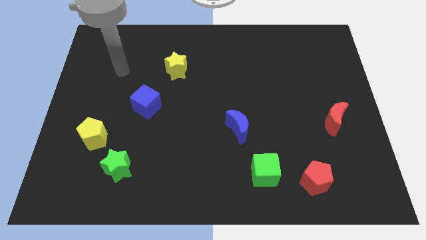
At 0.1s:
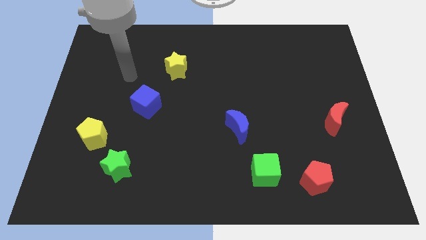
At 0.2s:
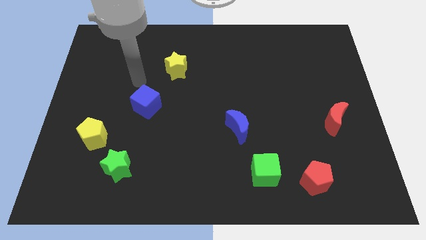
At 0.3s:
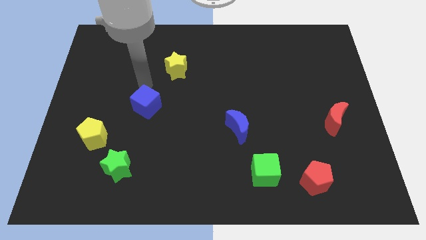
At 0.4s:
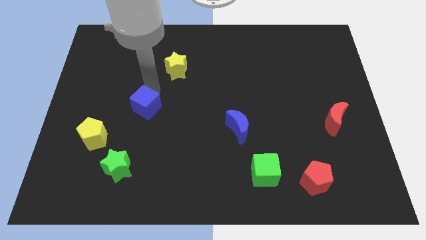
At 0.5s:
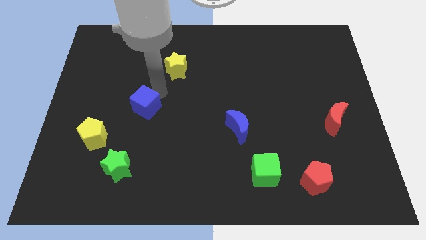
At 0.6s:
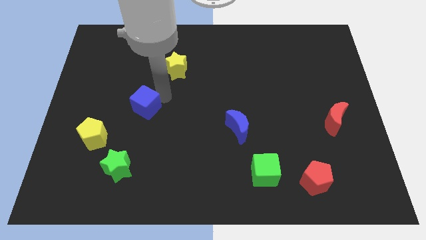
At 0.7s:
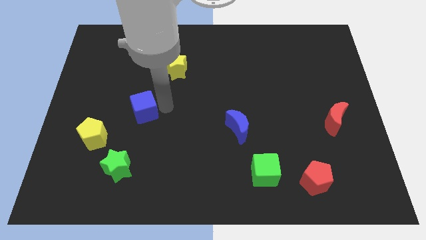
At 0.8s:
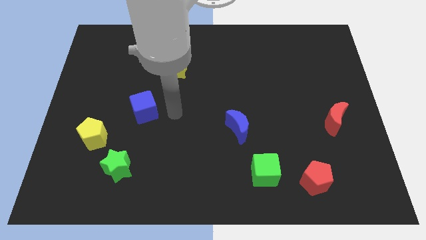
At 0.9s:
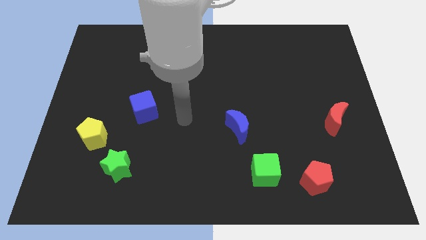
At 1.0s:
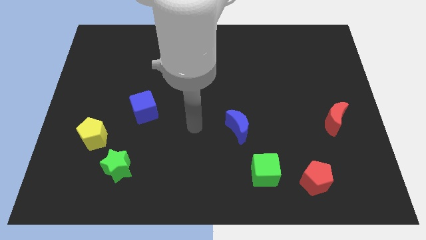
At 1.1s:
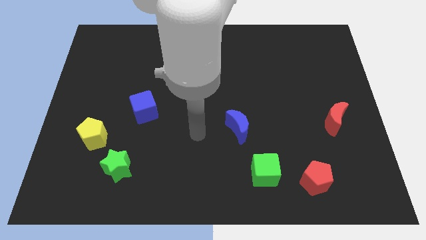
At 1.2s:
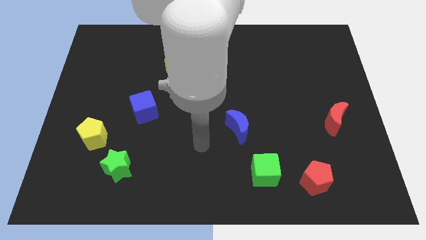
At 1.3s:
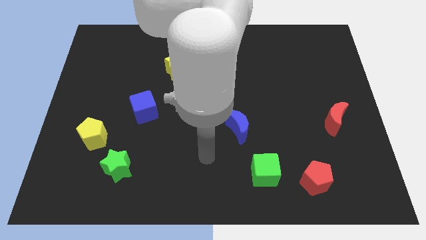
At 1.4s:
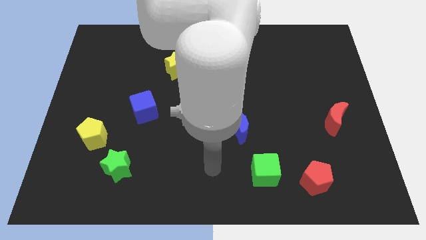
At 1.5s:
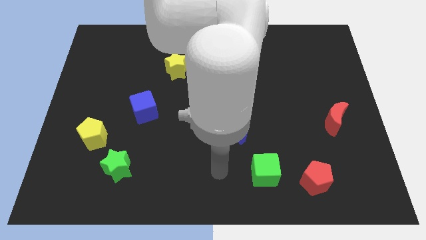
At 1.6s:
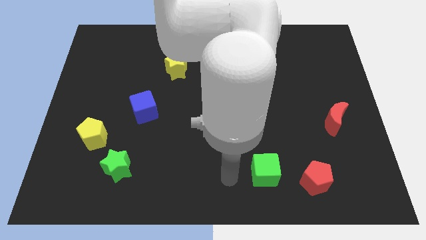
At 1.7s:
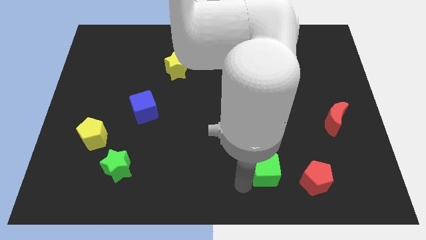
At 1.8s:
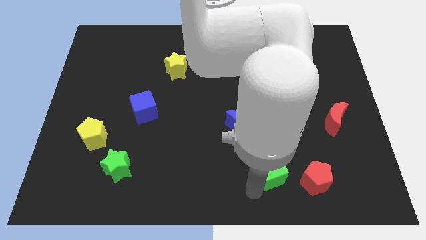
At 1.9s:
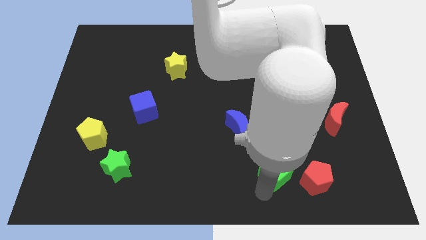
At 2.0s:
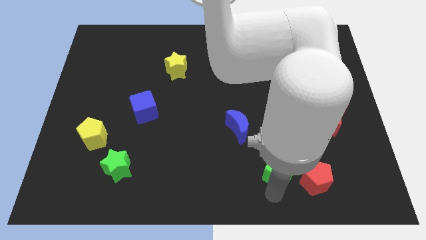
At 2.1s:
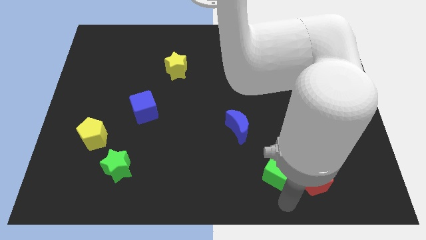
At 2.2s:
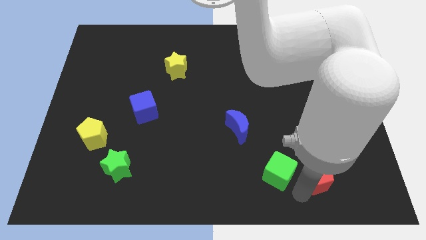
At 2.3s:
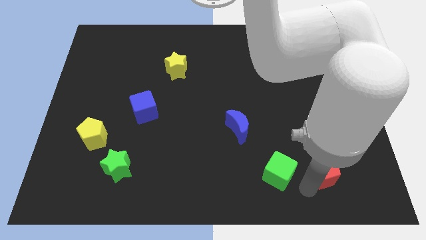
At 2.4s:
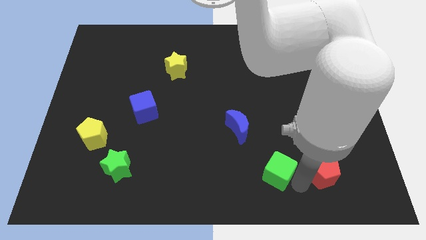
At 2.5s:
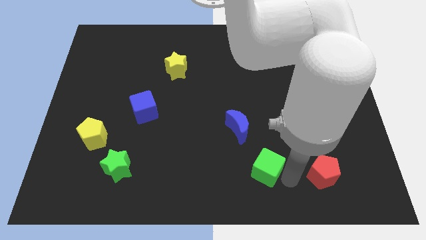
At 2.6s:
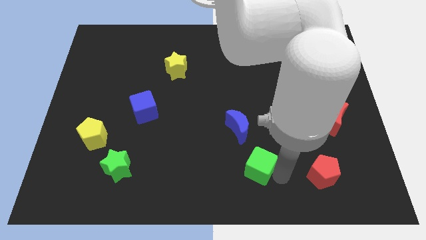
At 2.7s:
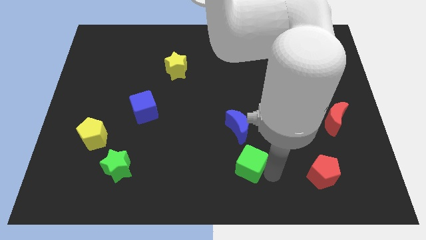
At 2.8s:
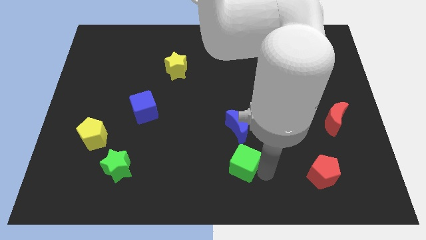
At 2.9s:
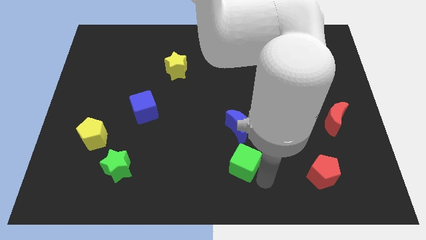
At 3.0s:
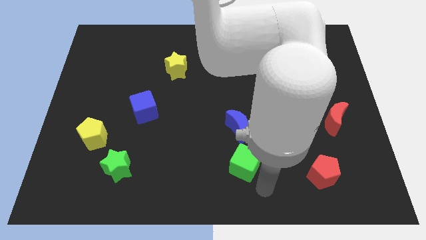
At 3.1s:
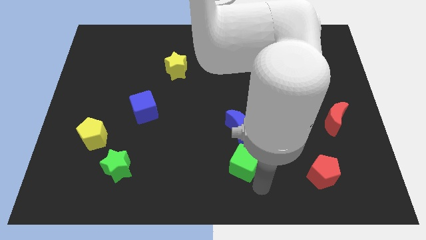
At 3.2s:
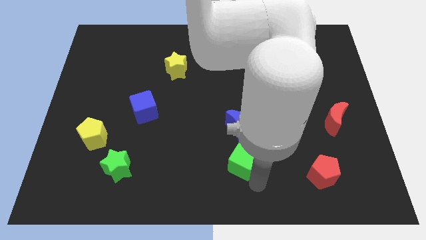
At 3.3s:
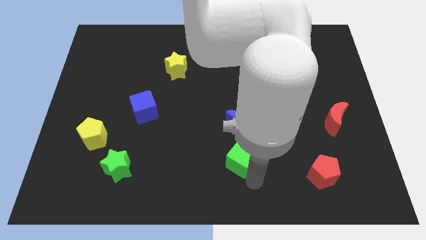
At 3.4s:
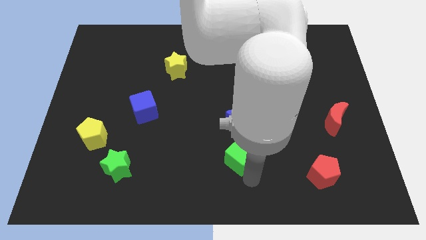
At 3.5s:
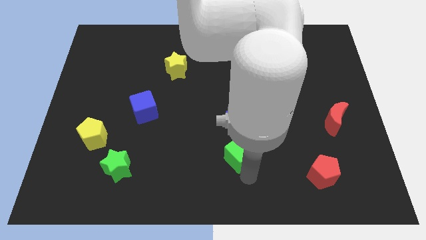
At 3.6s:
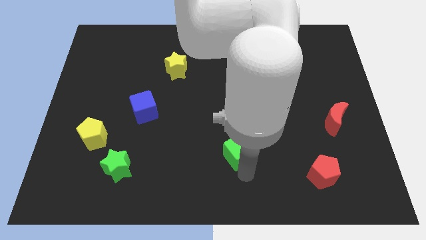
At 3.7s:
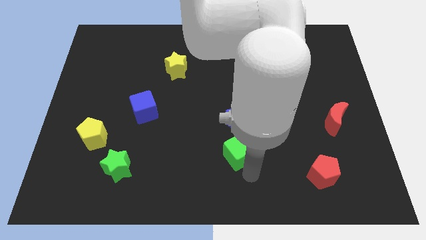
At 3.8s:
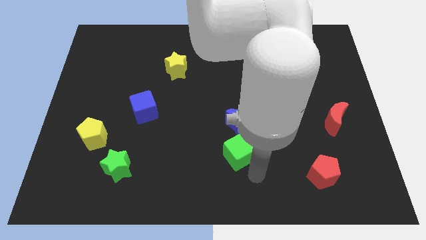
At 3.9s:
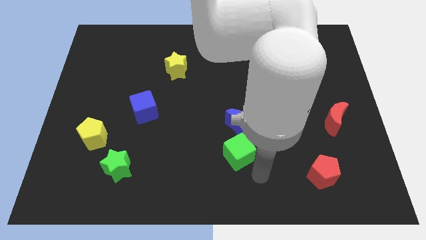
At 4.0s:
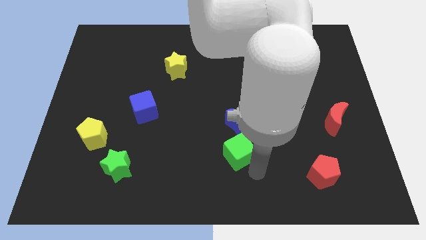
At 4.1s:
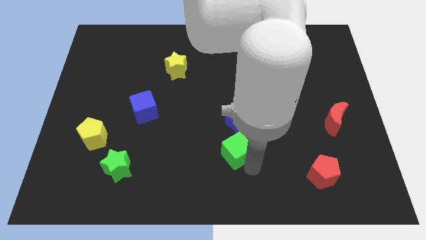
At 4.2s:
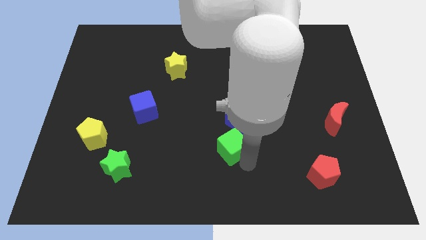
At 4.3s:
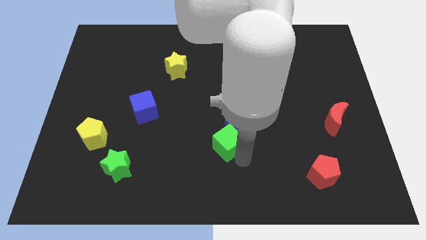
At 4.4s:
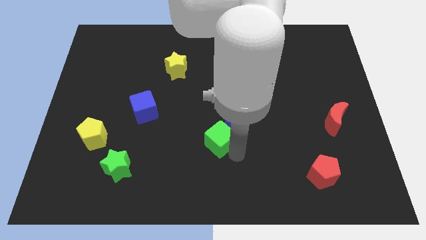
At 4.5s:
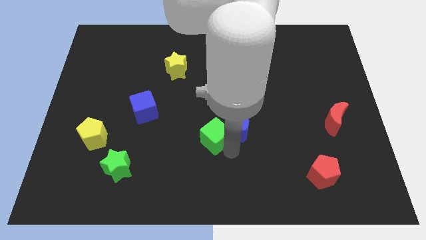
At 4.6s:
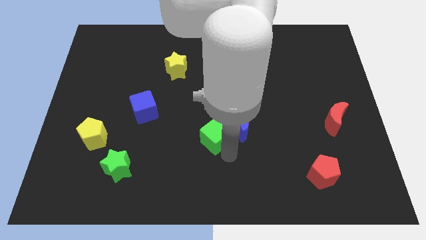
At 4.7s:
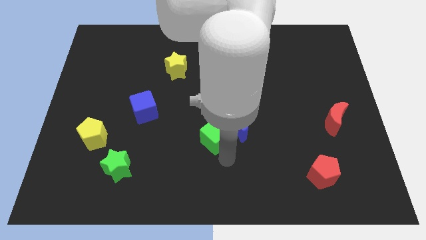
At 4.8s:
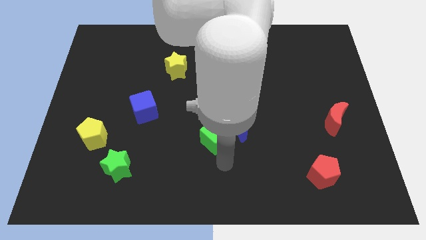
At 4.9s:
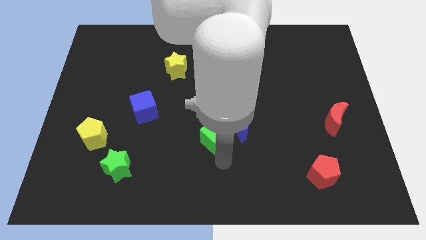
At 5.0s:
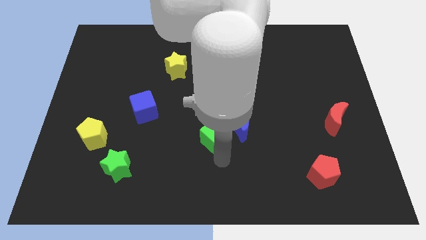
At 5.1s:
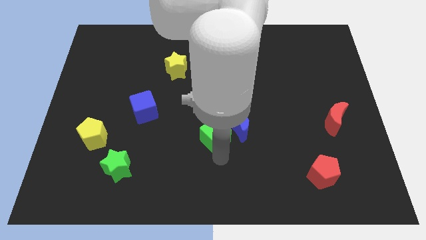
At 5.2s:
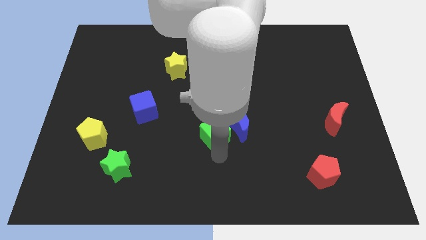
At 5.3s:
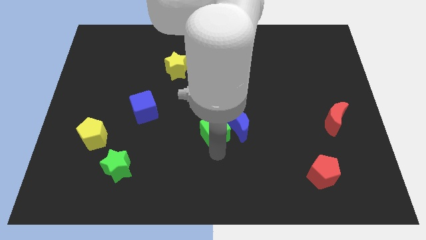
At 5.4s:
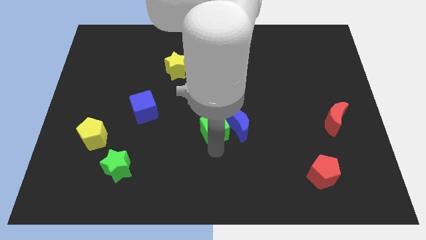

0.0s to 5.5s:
move the green cube to the top left side of the blue moon

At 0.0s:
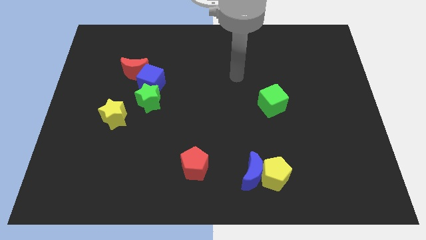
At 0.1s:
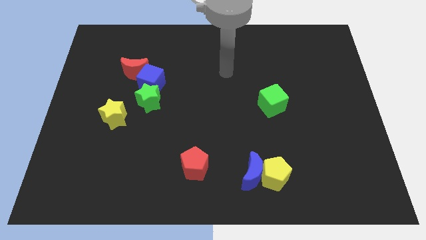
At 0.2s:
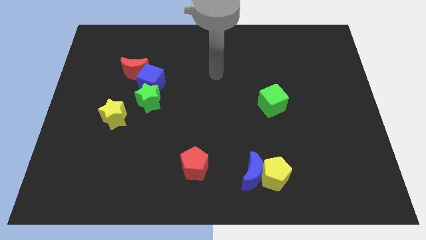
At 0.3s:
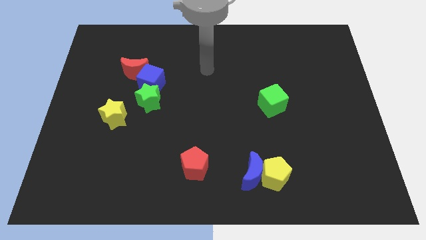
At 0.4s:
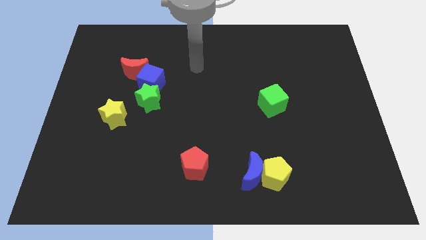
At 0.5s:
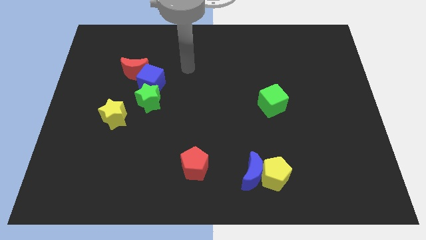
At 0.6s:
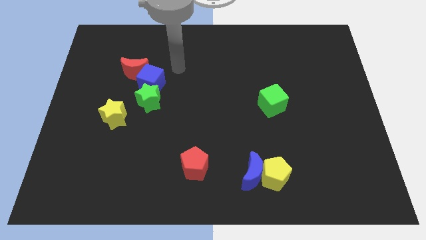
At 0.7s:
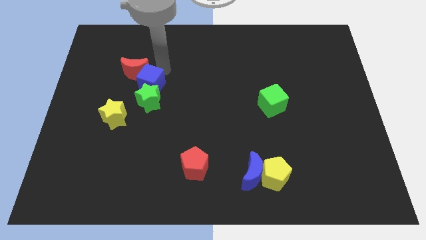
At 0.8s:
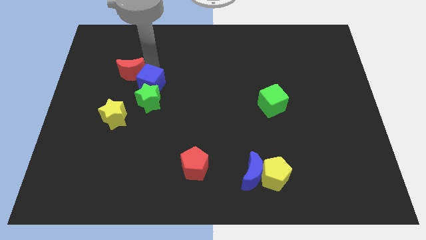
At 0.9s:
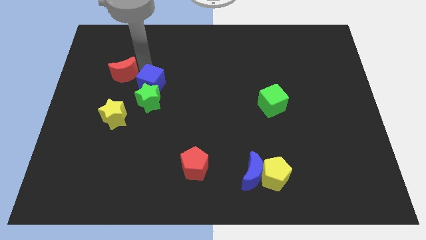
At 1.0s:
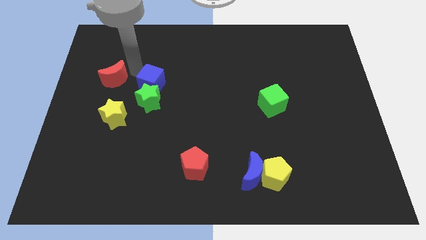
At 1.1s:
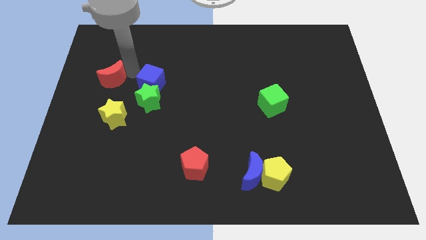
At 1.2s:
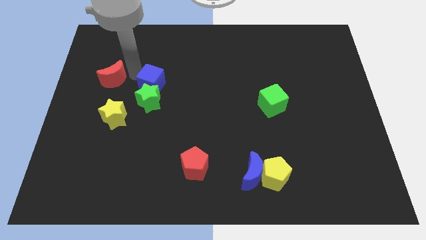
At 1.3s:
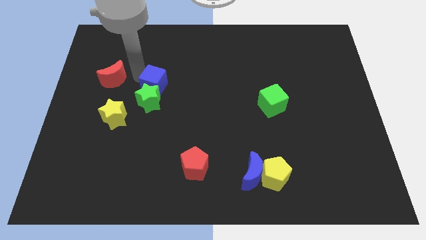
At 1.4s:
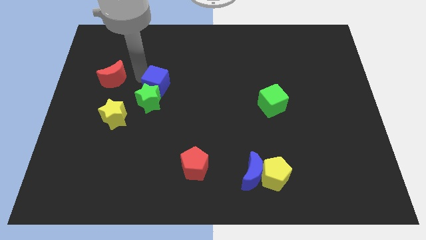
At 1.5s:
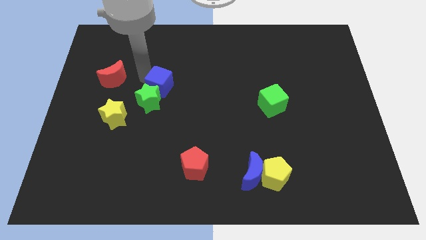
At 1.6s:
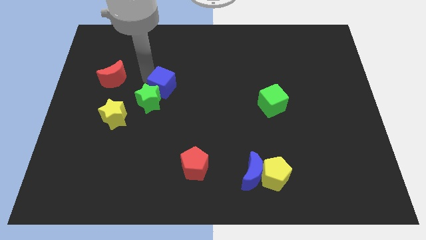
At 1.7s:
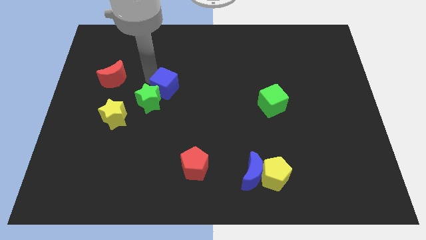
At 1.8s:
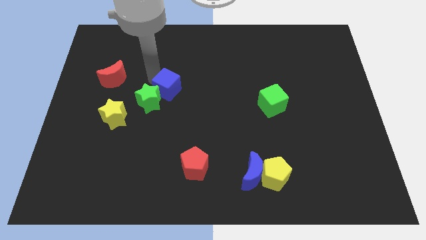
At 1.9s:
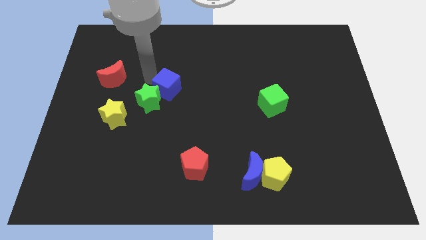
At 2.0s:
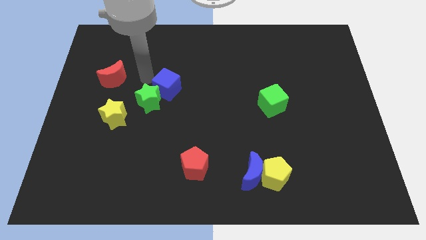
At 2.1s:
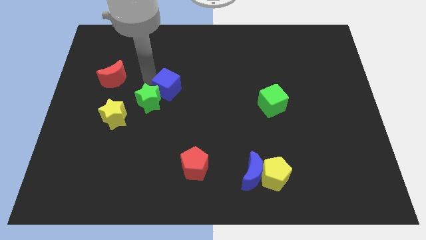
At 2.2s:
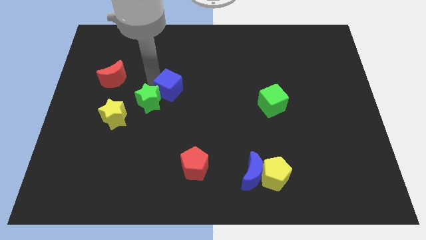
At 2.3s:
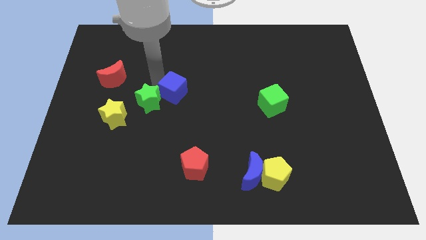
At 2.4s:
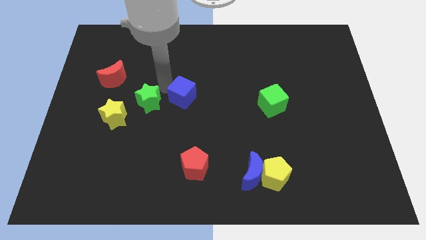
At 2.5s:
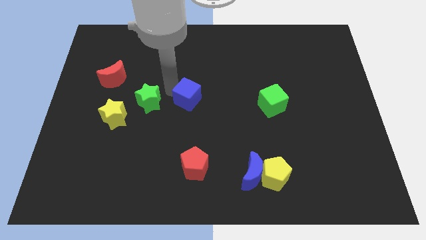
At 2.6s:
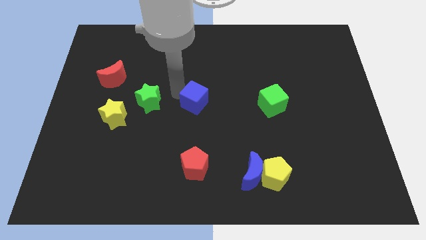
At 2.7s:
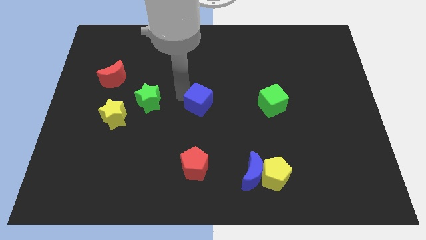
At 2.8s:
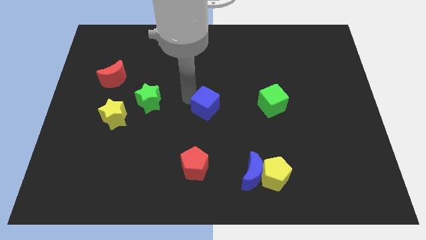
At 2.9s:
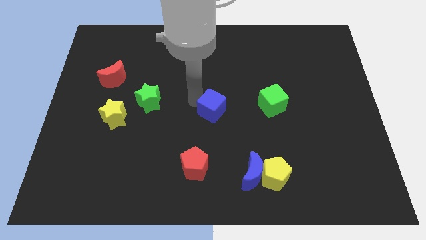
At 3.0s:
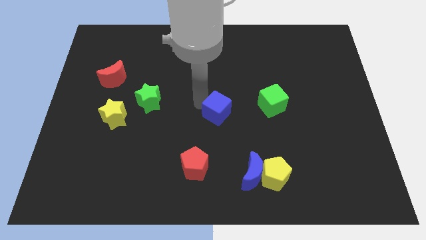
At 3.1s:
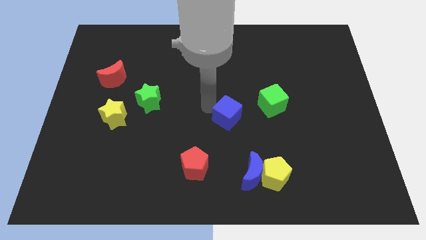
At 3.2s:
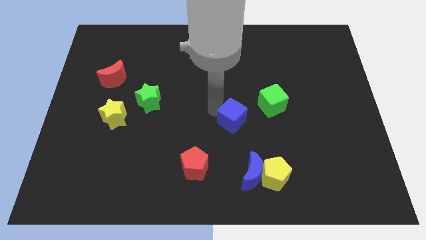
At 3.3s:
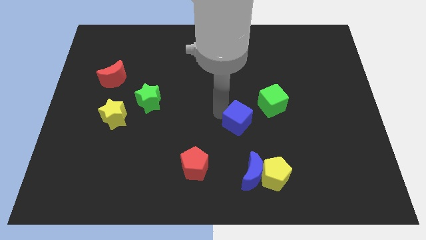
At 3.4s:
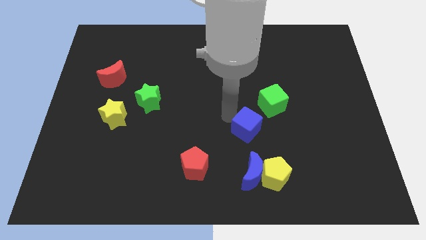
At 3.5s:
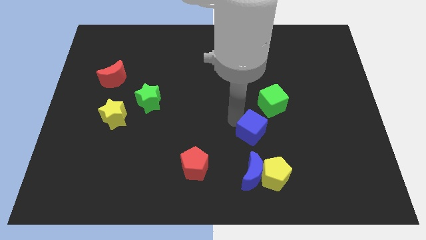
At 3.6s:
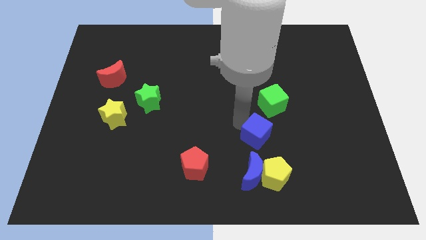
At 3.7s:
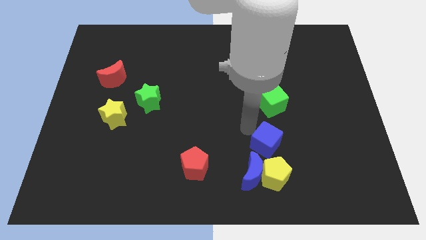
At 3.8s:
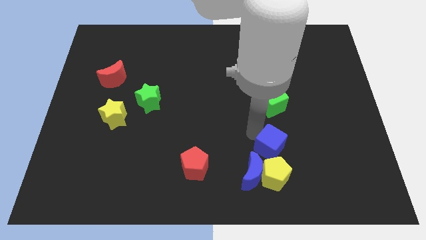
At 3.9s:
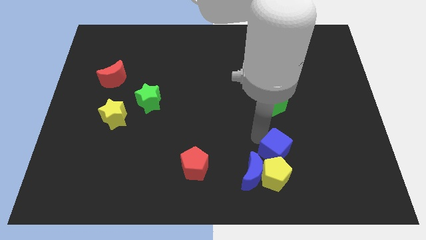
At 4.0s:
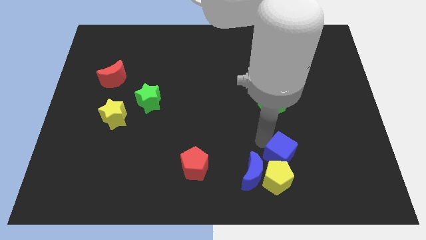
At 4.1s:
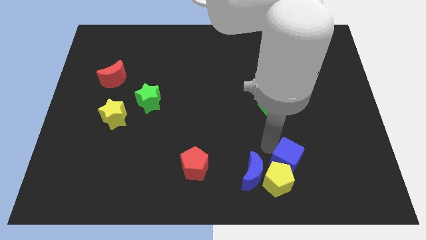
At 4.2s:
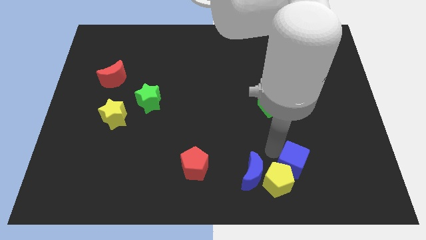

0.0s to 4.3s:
move the blue cube to the right side of the yellow pentagon
